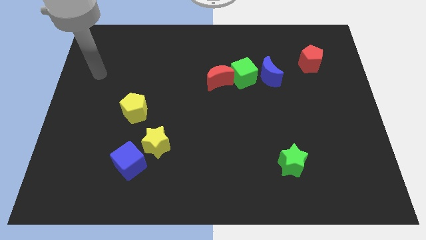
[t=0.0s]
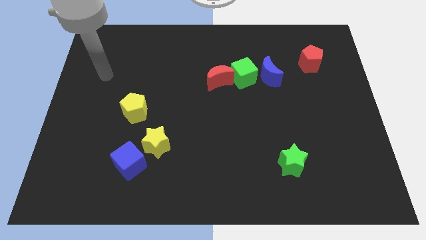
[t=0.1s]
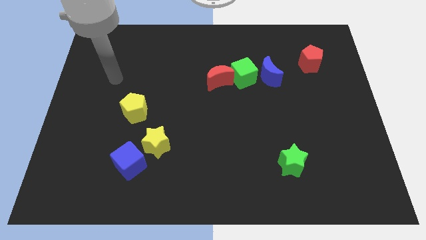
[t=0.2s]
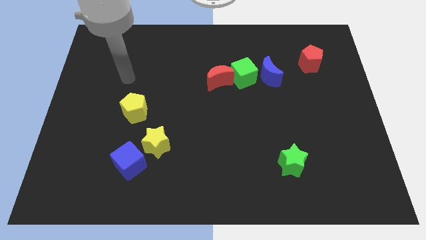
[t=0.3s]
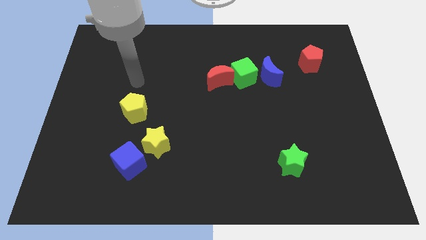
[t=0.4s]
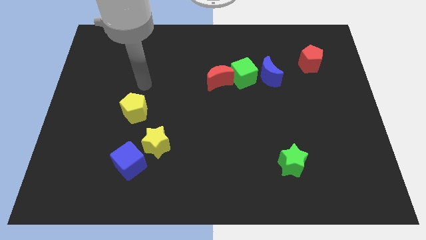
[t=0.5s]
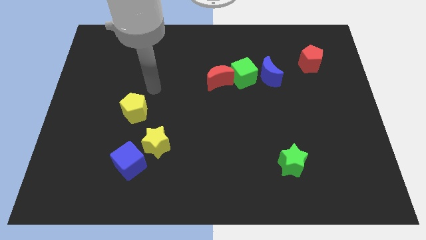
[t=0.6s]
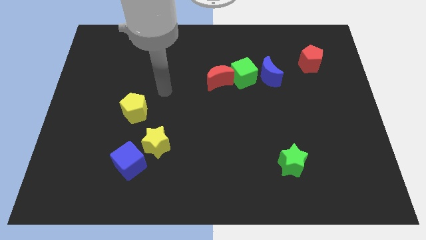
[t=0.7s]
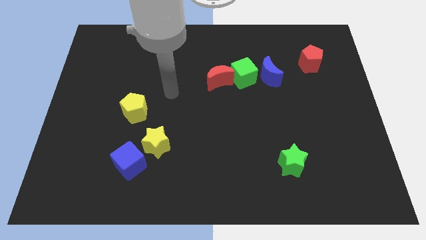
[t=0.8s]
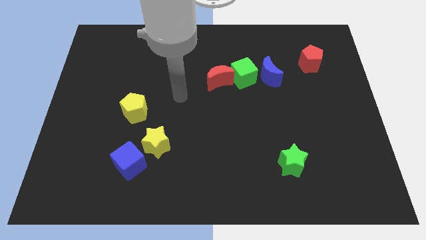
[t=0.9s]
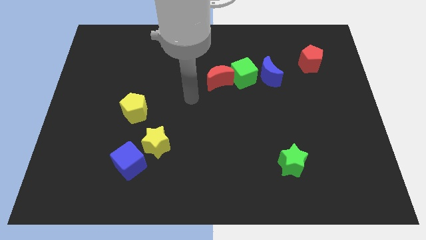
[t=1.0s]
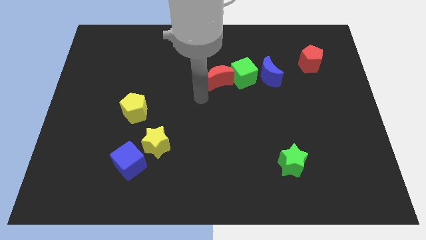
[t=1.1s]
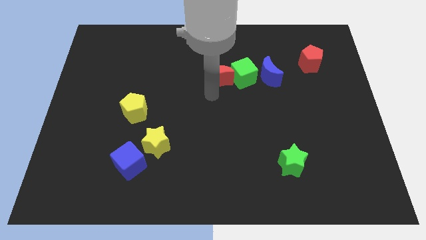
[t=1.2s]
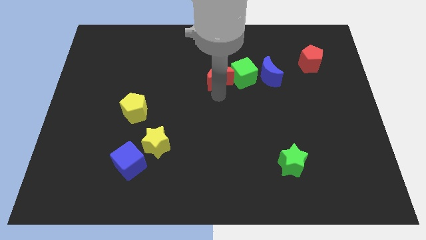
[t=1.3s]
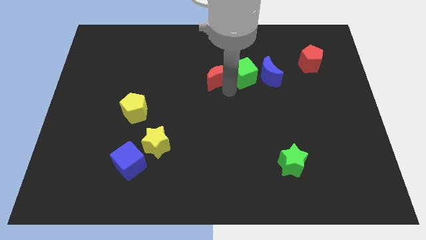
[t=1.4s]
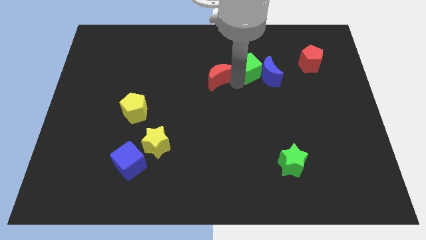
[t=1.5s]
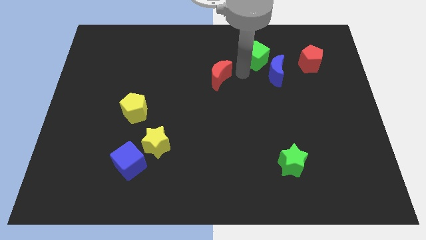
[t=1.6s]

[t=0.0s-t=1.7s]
pull the red moon apart from the green cube

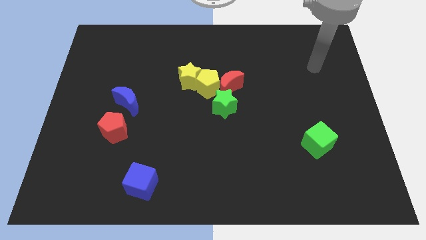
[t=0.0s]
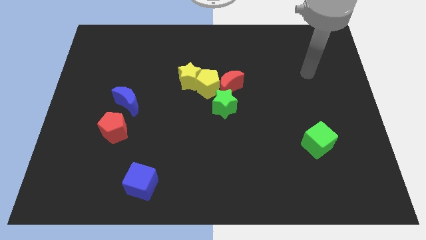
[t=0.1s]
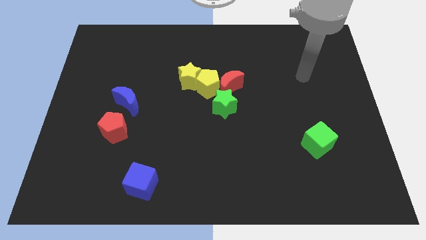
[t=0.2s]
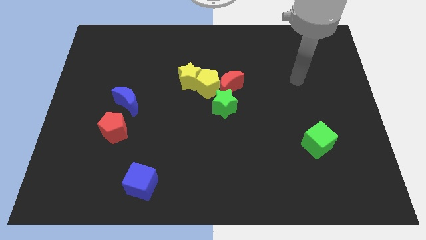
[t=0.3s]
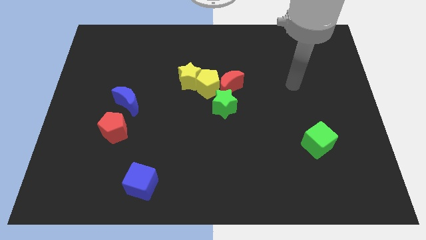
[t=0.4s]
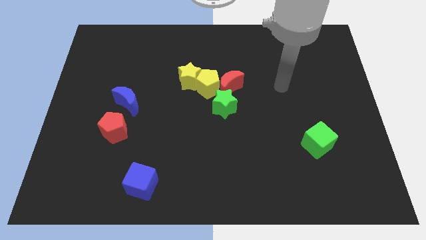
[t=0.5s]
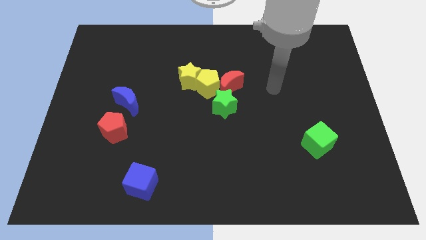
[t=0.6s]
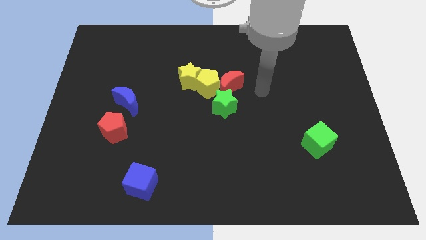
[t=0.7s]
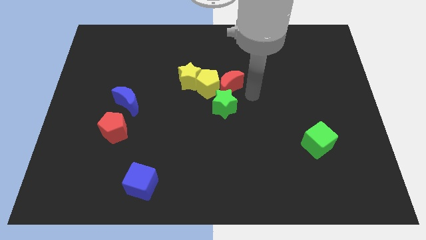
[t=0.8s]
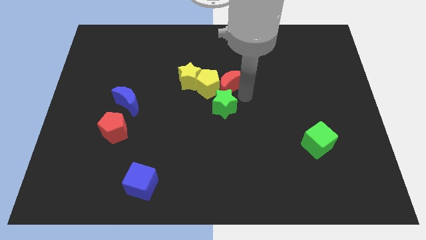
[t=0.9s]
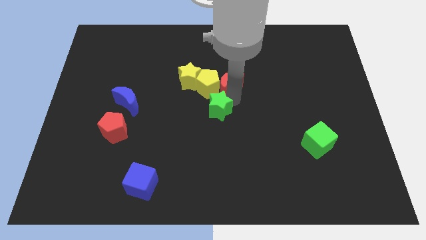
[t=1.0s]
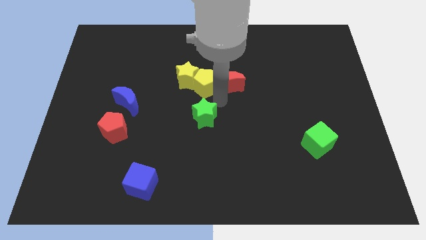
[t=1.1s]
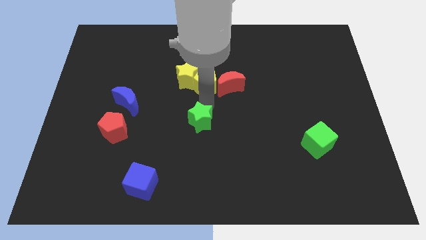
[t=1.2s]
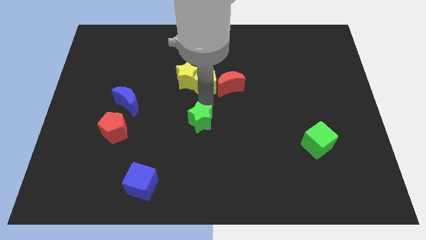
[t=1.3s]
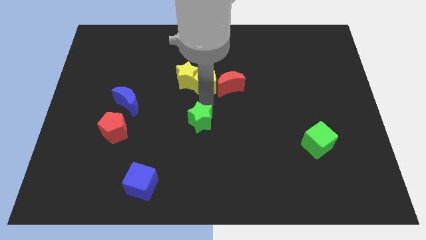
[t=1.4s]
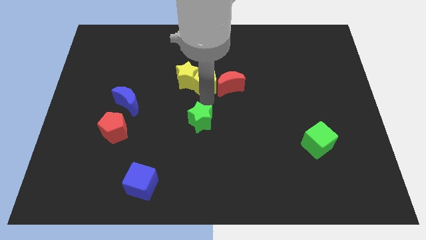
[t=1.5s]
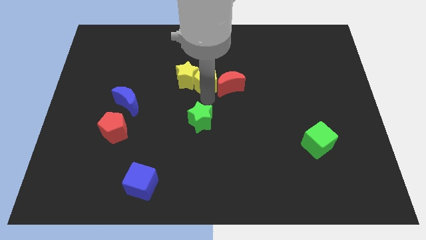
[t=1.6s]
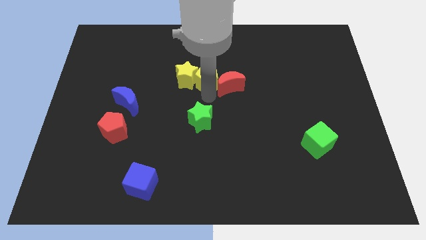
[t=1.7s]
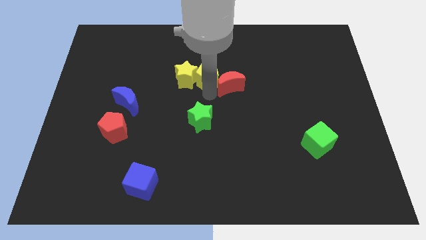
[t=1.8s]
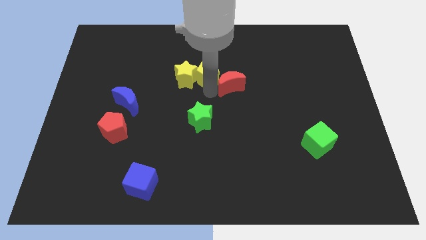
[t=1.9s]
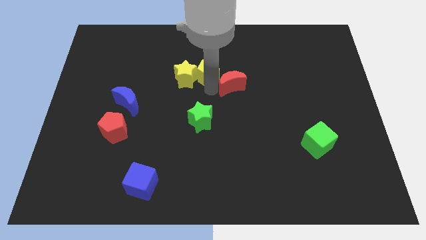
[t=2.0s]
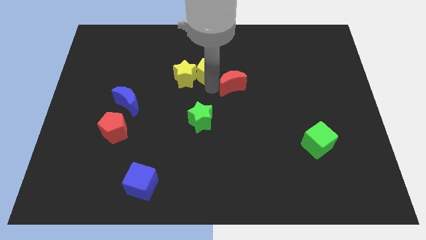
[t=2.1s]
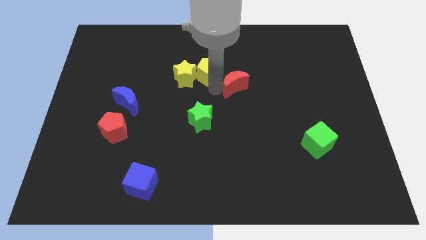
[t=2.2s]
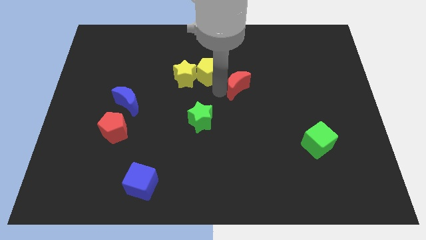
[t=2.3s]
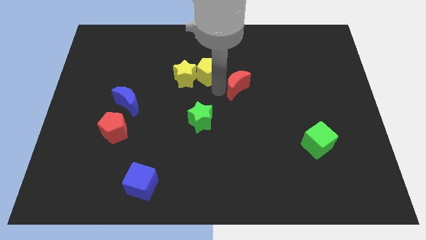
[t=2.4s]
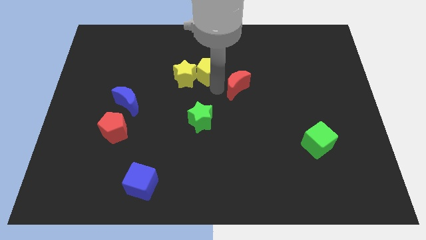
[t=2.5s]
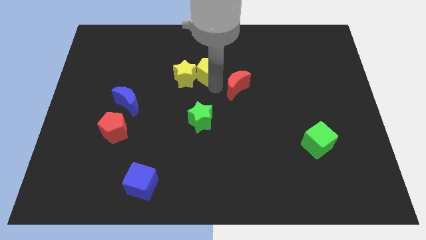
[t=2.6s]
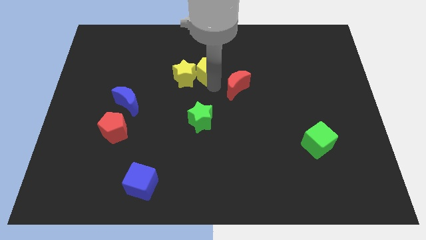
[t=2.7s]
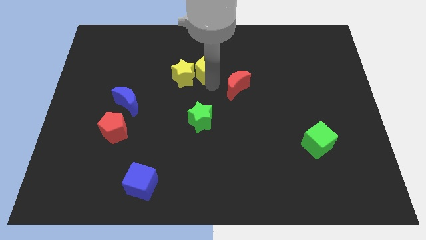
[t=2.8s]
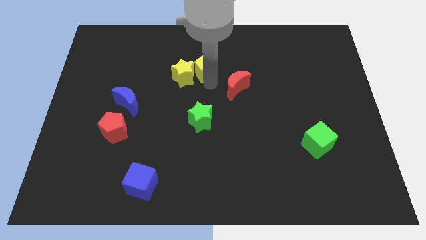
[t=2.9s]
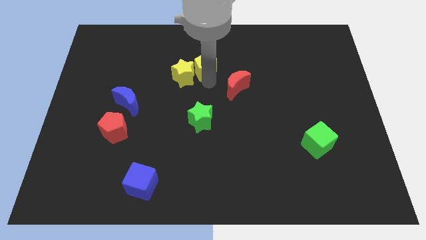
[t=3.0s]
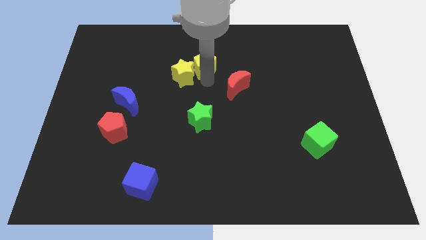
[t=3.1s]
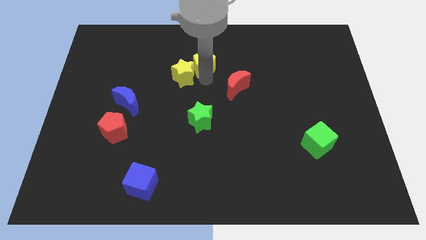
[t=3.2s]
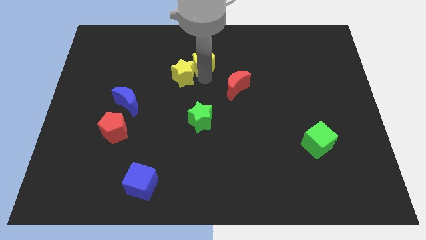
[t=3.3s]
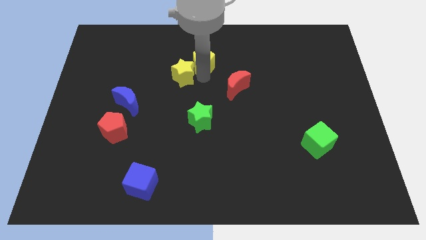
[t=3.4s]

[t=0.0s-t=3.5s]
move the yellow pentagon away from the yellow star, red moon, and green star

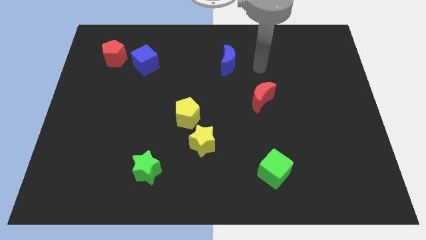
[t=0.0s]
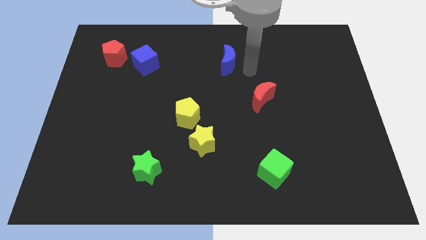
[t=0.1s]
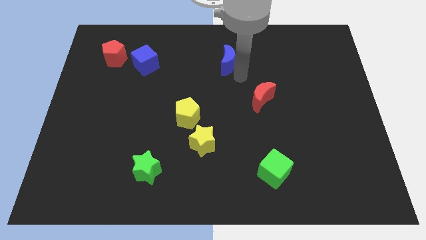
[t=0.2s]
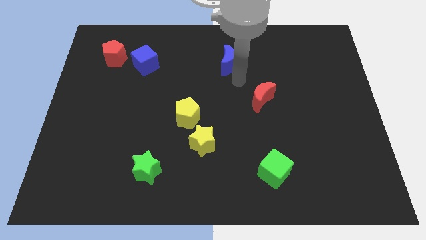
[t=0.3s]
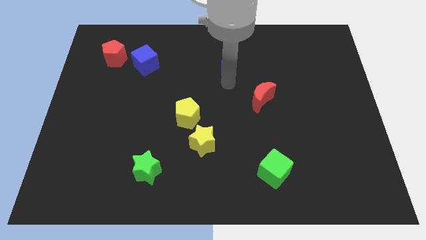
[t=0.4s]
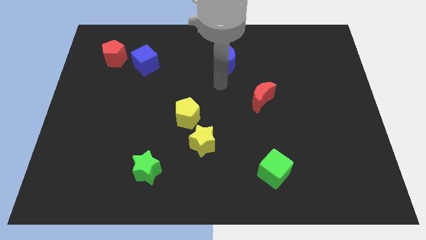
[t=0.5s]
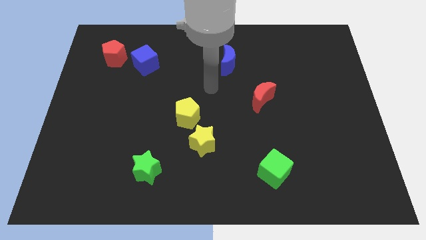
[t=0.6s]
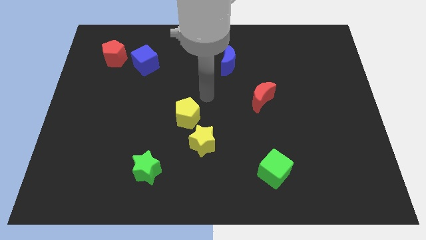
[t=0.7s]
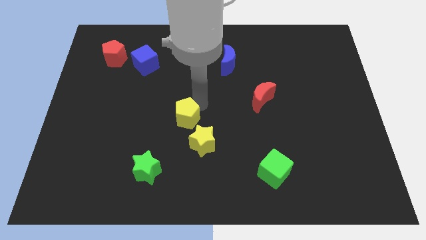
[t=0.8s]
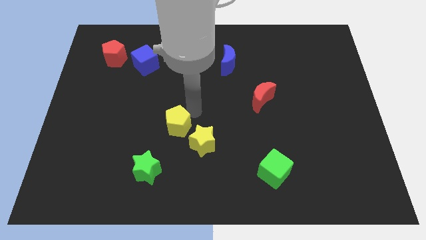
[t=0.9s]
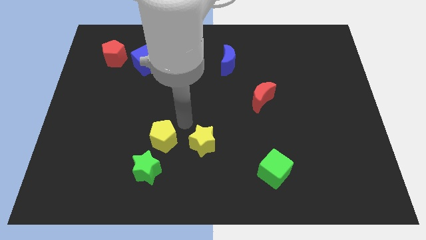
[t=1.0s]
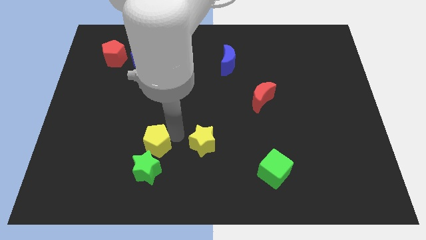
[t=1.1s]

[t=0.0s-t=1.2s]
move the yellow star away from the yellow pentagon

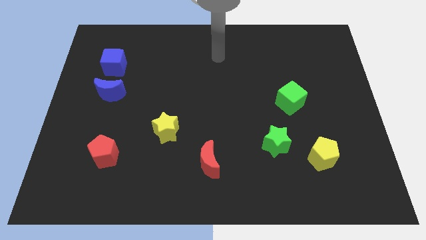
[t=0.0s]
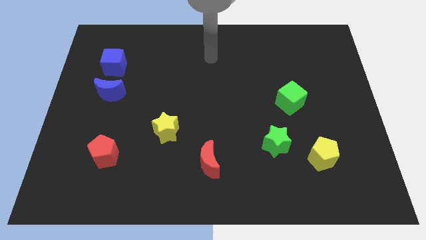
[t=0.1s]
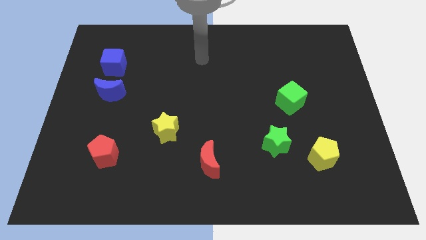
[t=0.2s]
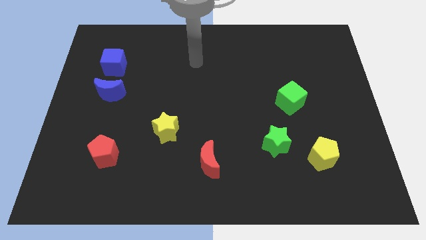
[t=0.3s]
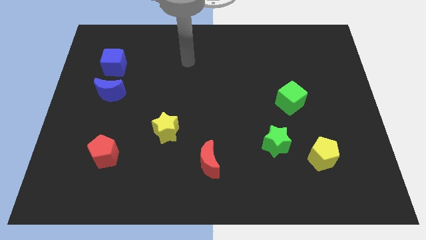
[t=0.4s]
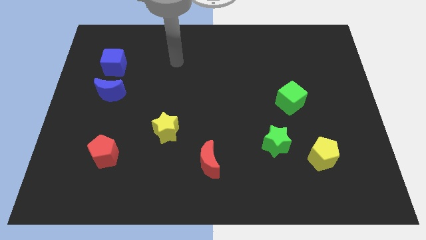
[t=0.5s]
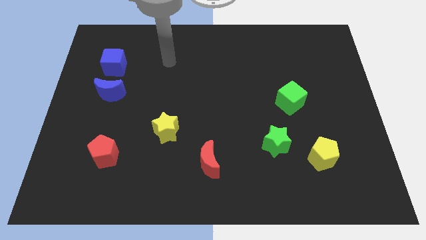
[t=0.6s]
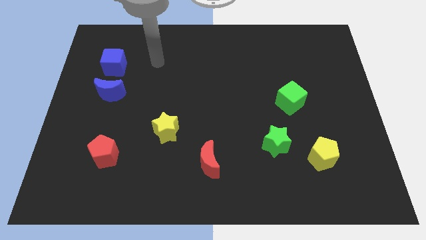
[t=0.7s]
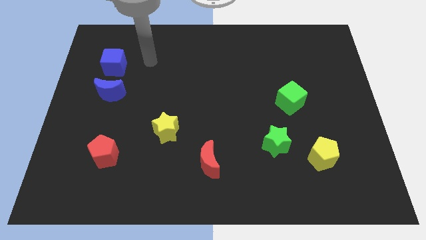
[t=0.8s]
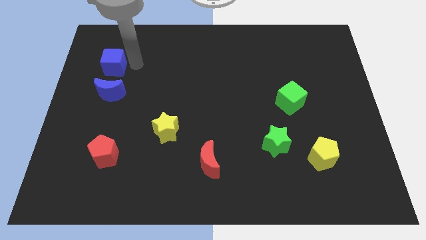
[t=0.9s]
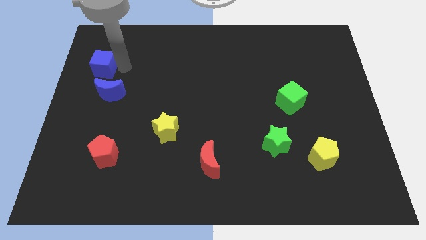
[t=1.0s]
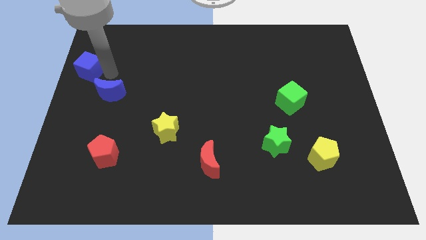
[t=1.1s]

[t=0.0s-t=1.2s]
separate the blue moon from the blue cube

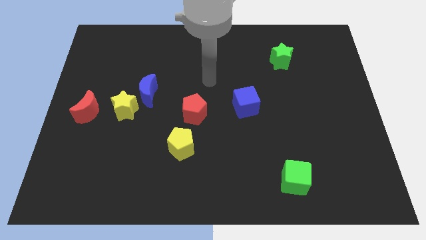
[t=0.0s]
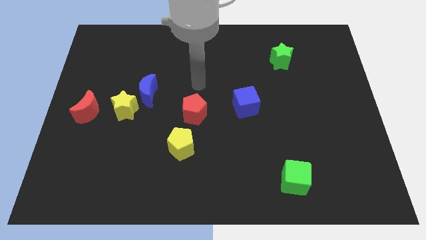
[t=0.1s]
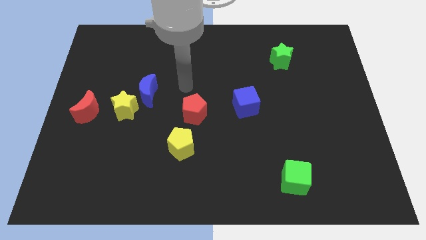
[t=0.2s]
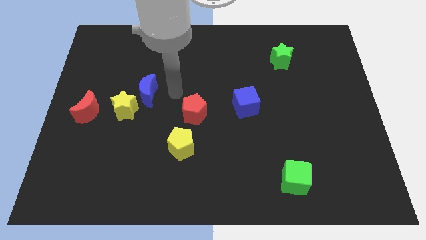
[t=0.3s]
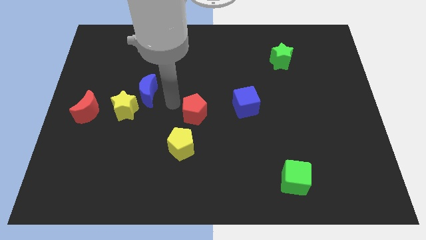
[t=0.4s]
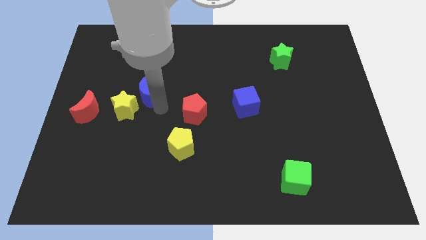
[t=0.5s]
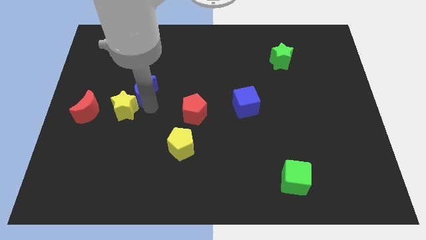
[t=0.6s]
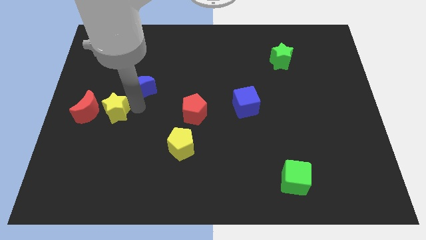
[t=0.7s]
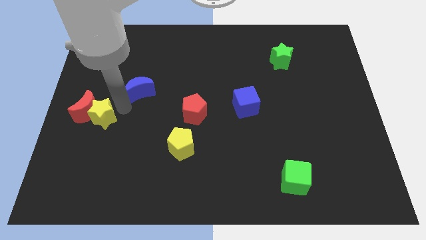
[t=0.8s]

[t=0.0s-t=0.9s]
pull the blue moon apart from the yellow star

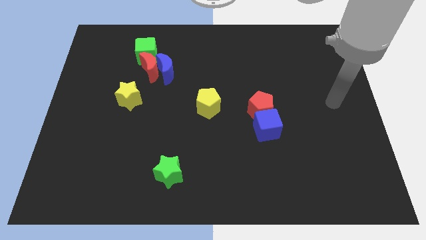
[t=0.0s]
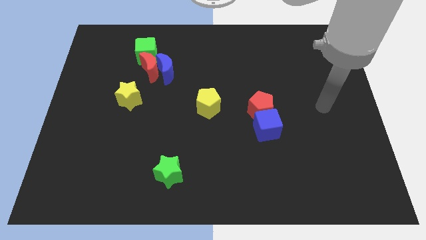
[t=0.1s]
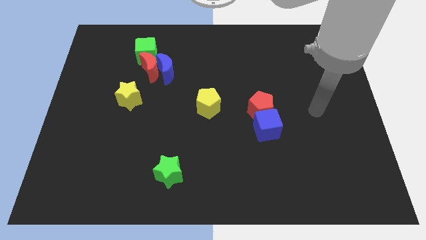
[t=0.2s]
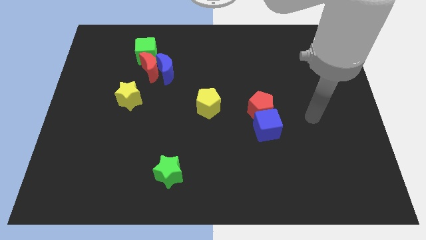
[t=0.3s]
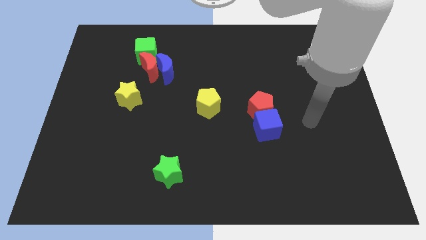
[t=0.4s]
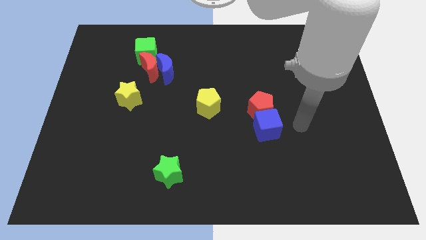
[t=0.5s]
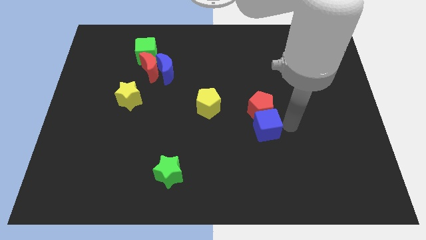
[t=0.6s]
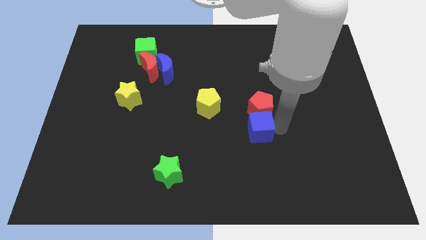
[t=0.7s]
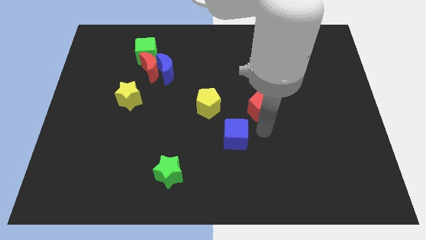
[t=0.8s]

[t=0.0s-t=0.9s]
move the red pentagon away from the blue cube
